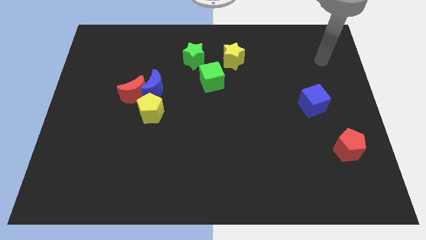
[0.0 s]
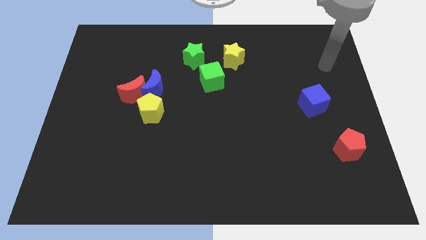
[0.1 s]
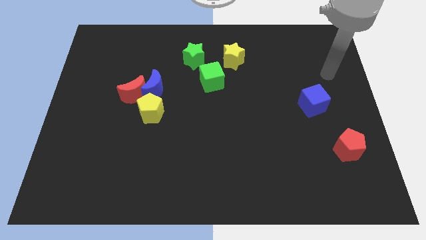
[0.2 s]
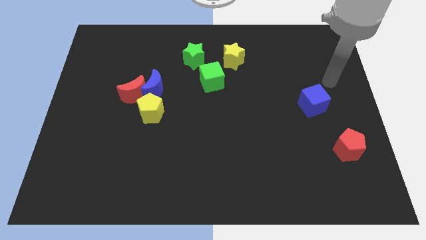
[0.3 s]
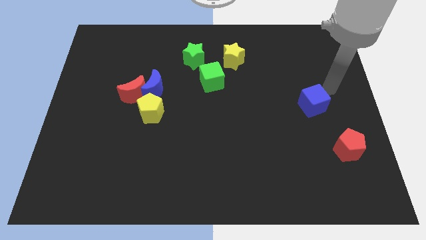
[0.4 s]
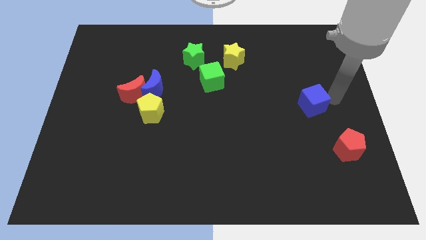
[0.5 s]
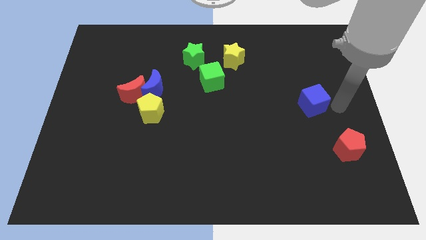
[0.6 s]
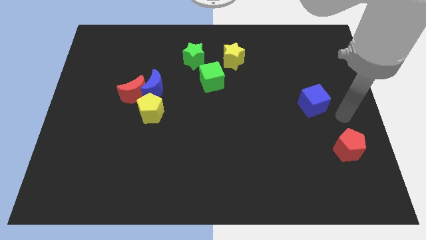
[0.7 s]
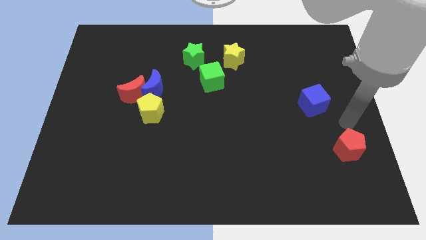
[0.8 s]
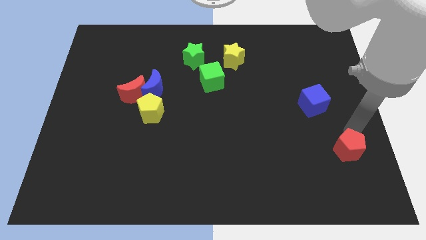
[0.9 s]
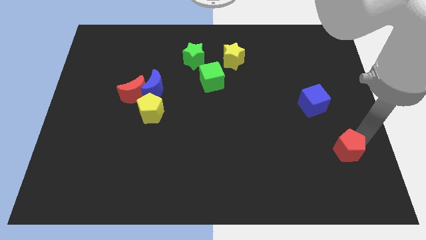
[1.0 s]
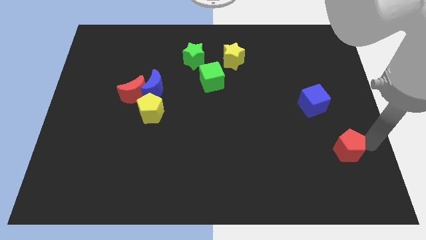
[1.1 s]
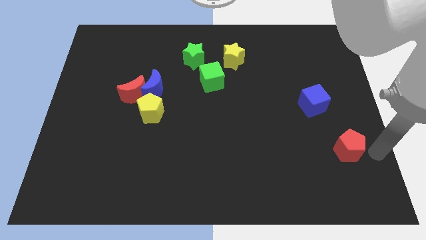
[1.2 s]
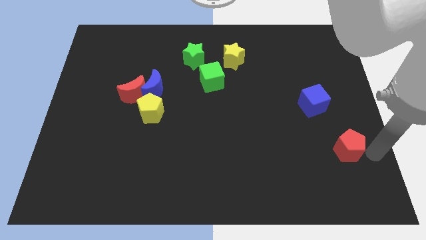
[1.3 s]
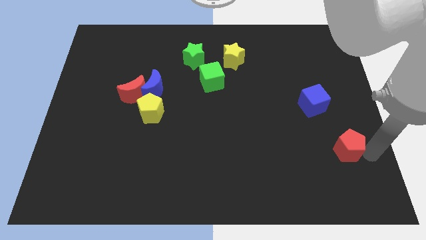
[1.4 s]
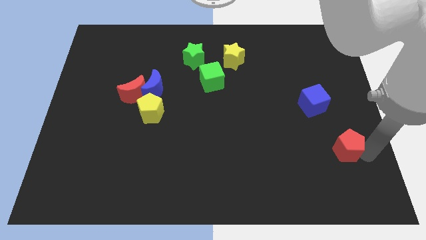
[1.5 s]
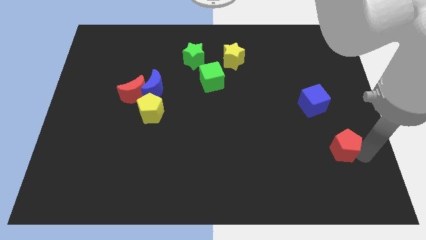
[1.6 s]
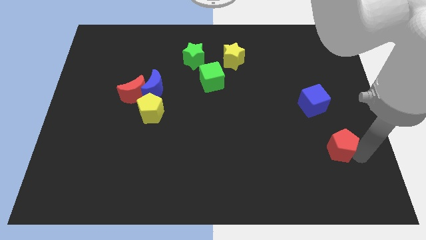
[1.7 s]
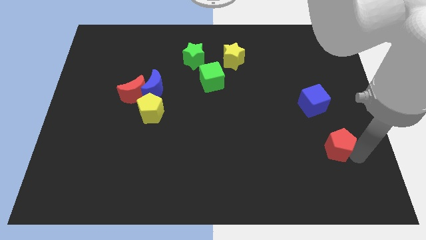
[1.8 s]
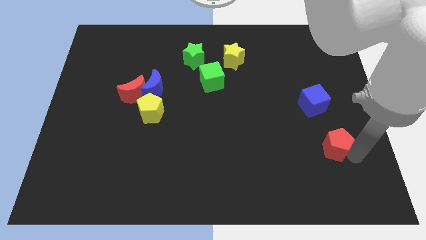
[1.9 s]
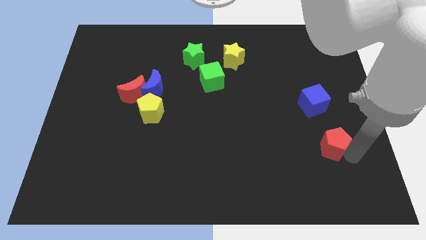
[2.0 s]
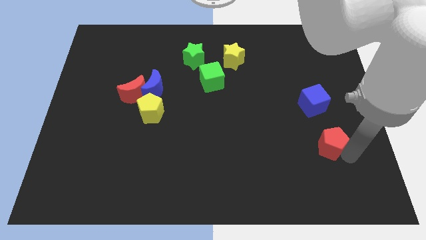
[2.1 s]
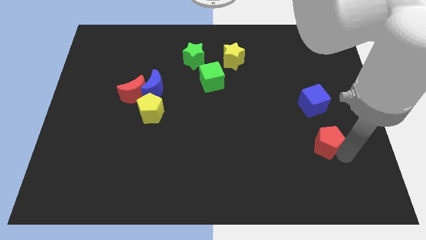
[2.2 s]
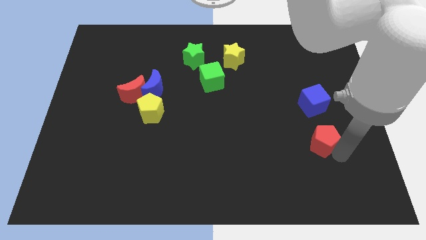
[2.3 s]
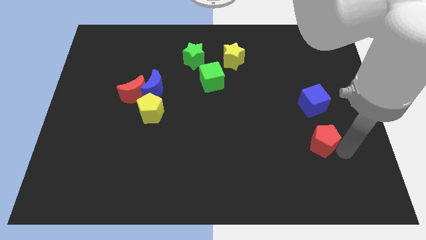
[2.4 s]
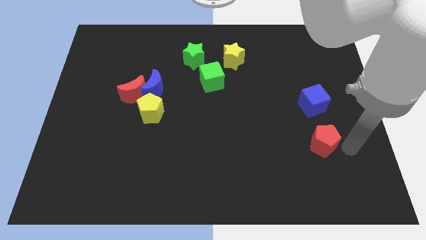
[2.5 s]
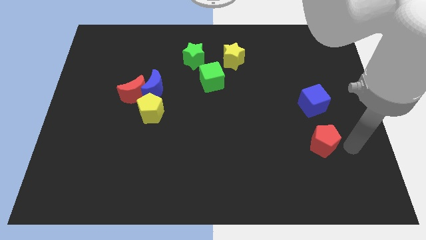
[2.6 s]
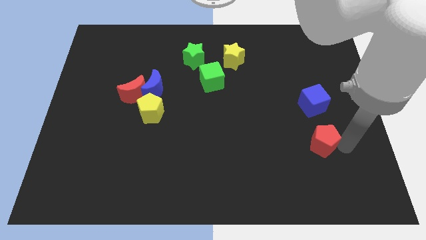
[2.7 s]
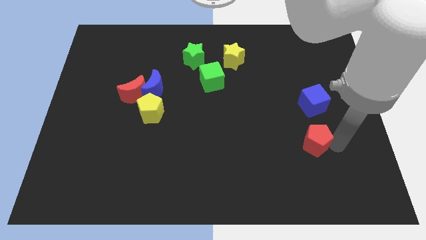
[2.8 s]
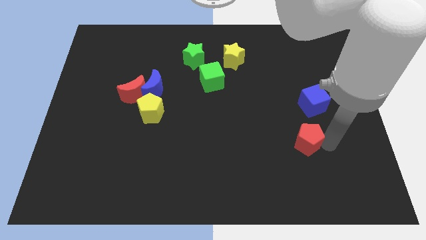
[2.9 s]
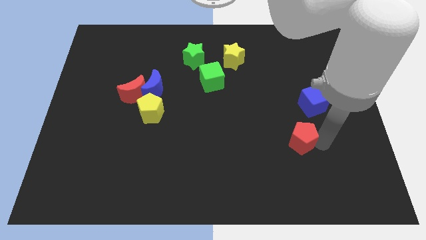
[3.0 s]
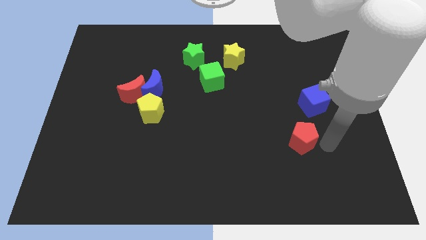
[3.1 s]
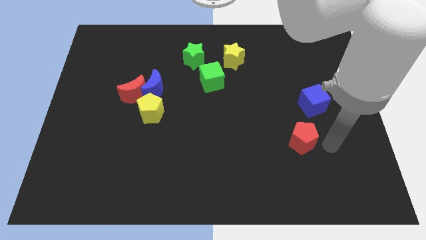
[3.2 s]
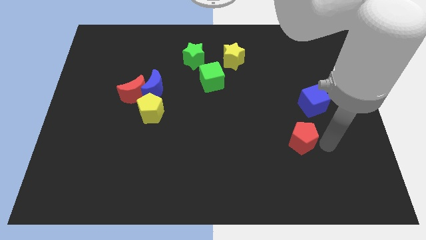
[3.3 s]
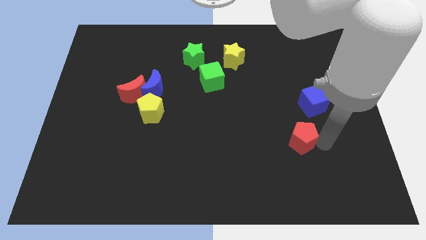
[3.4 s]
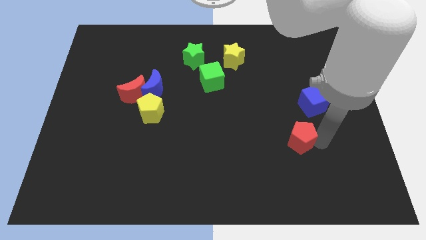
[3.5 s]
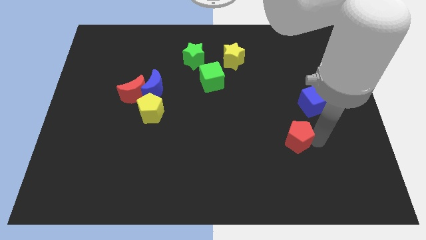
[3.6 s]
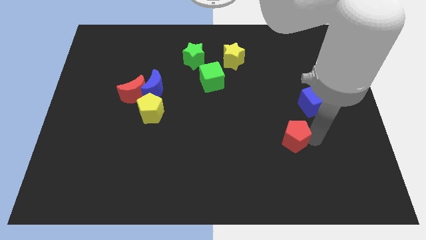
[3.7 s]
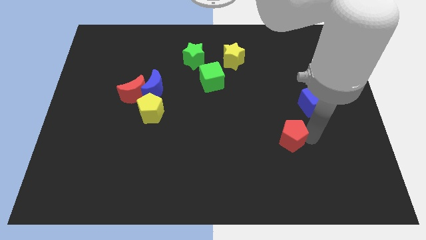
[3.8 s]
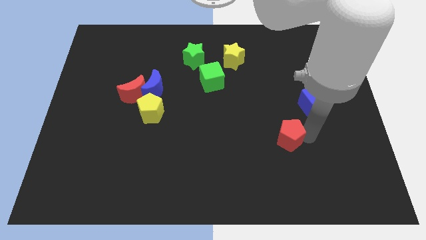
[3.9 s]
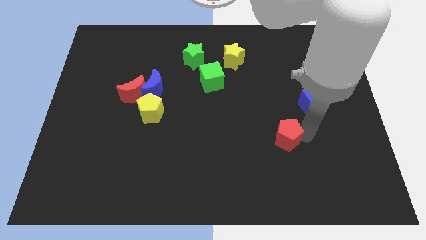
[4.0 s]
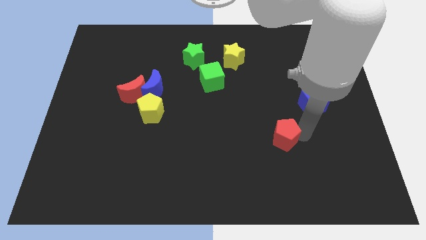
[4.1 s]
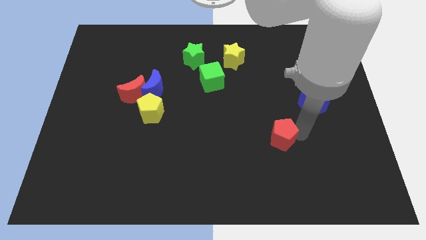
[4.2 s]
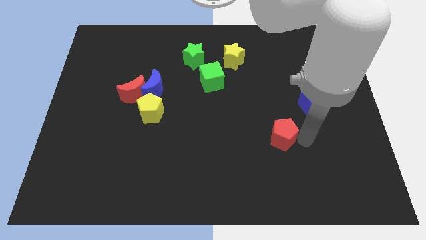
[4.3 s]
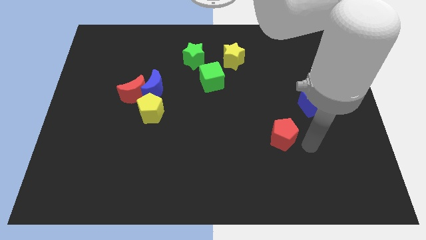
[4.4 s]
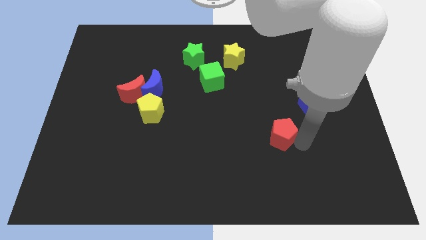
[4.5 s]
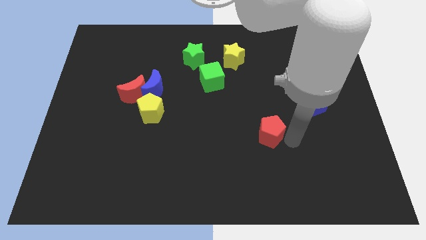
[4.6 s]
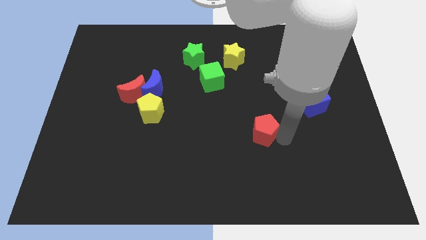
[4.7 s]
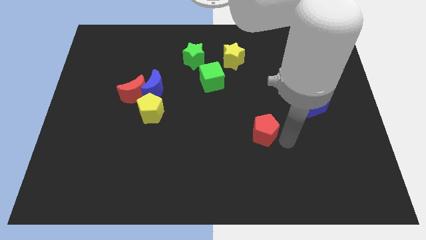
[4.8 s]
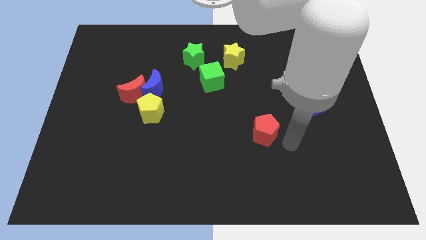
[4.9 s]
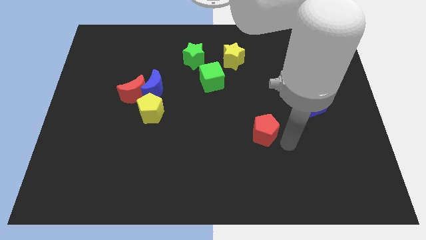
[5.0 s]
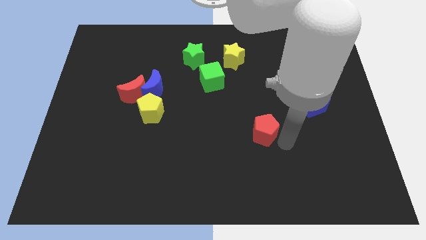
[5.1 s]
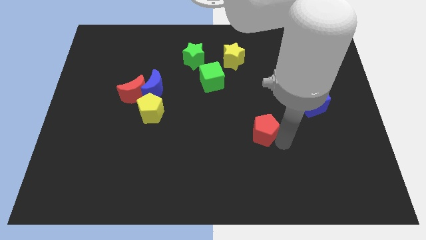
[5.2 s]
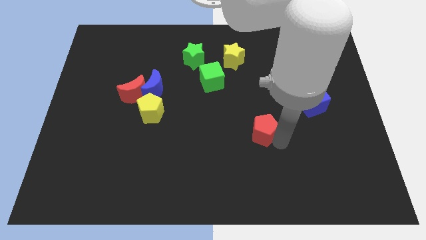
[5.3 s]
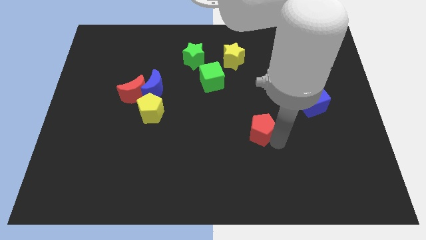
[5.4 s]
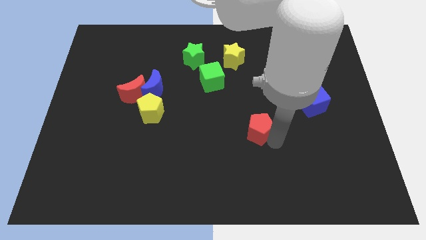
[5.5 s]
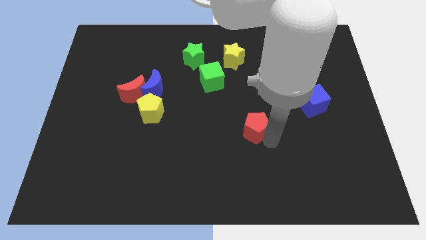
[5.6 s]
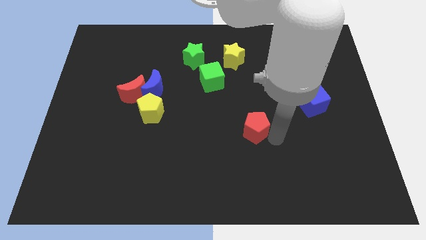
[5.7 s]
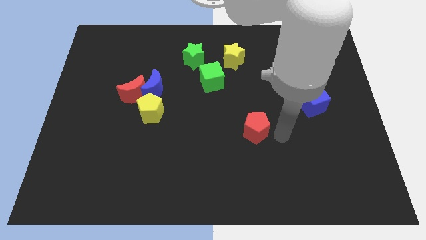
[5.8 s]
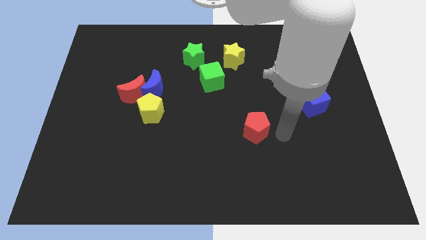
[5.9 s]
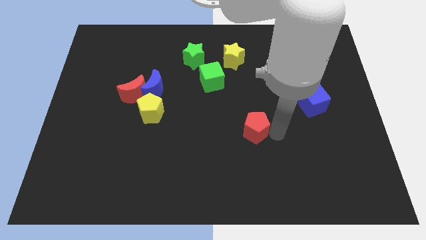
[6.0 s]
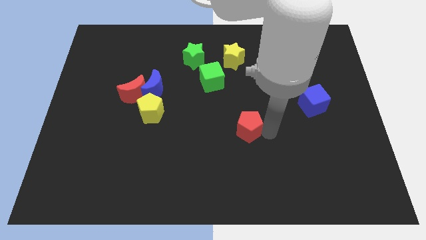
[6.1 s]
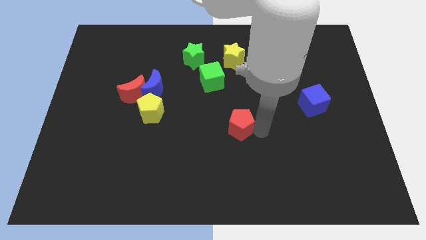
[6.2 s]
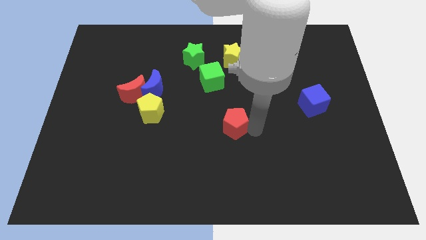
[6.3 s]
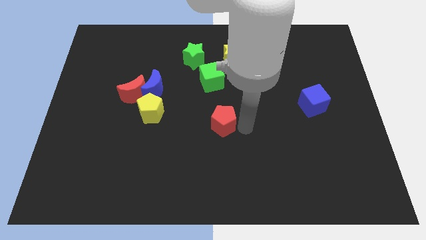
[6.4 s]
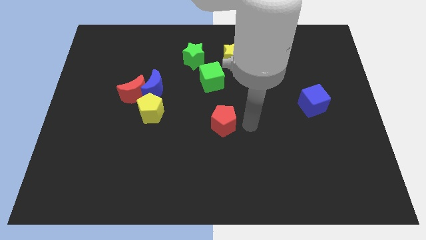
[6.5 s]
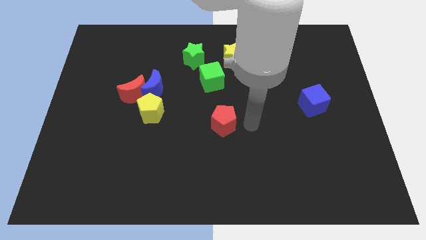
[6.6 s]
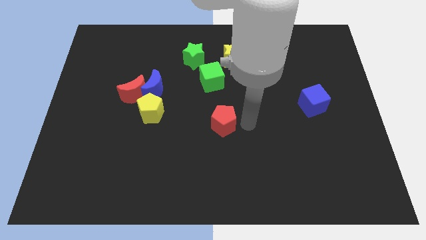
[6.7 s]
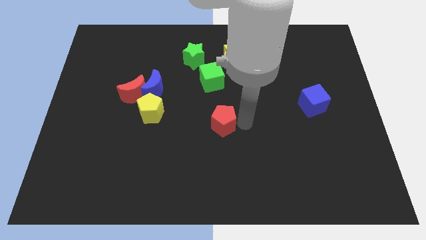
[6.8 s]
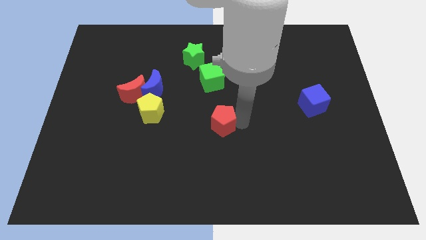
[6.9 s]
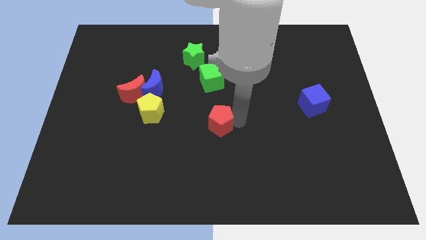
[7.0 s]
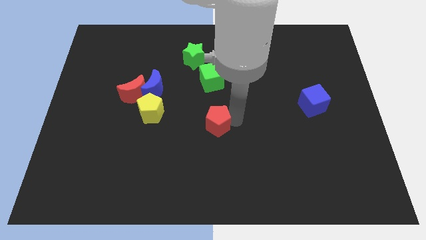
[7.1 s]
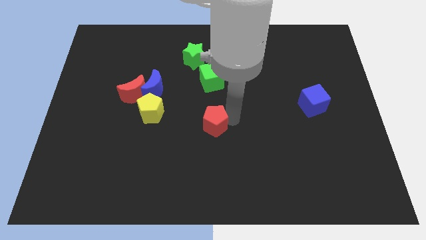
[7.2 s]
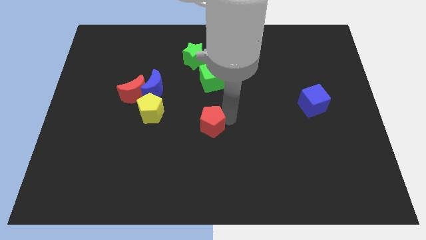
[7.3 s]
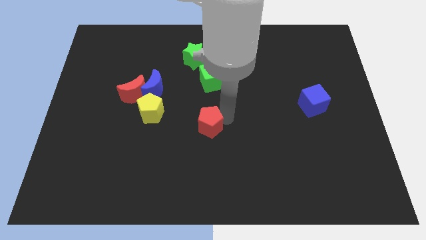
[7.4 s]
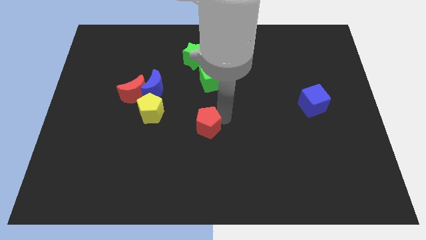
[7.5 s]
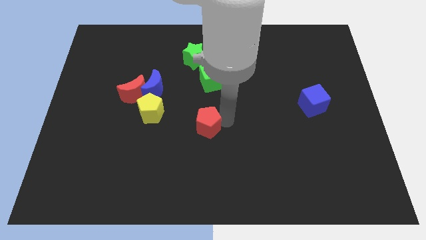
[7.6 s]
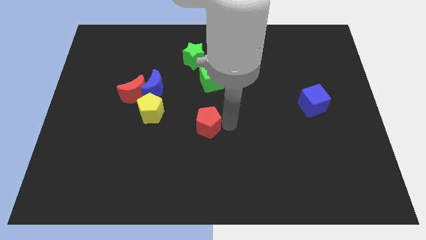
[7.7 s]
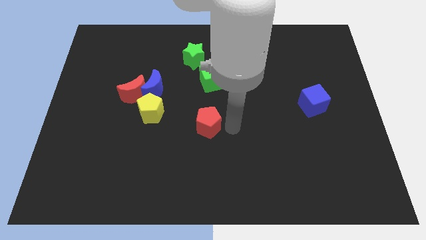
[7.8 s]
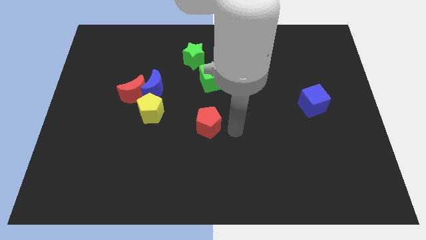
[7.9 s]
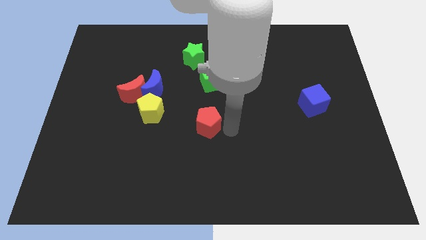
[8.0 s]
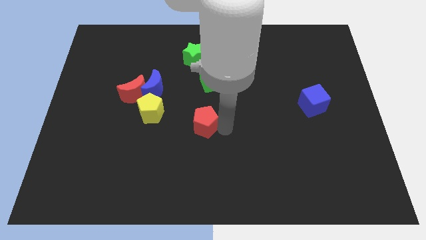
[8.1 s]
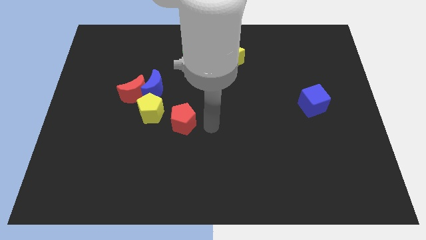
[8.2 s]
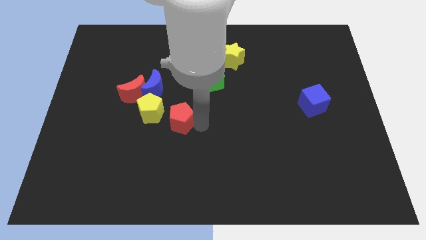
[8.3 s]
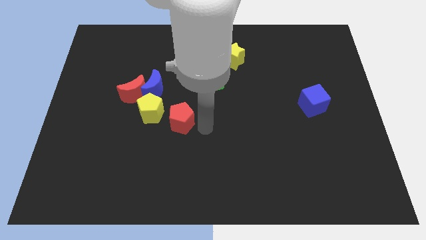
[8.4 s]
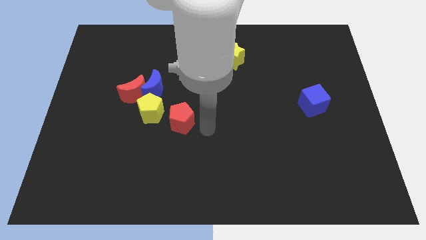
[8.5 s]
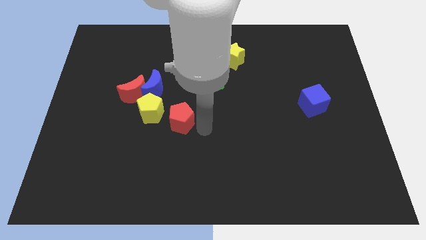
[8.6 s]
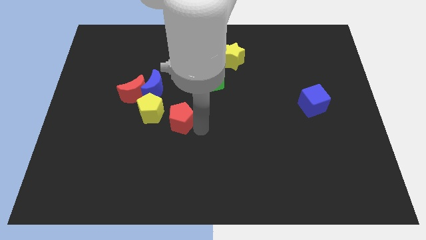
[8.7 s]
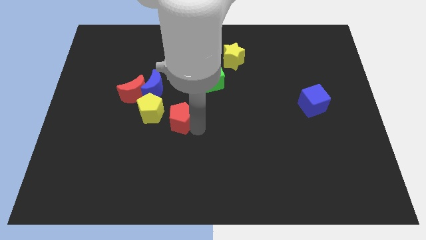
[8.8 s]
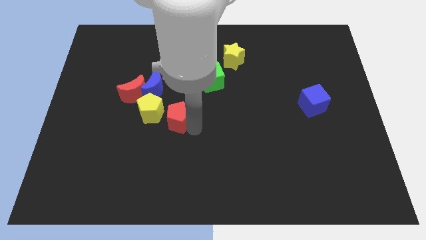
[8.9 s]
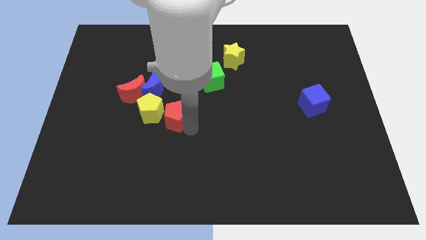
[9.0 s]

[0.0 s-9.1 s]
put the red pentagon close to the yellow pentagon
